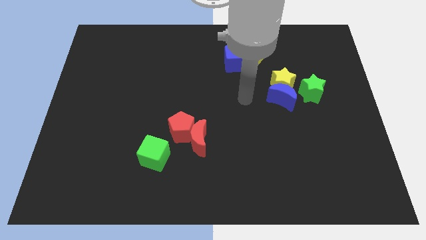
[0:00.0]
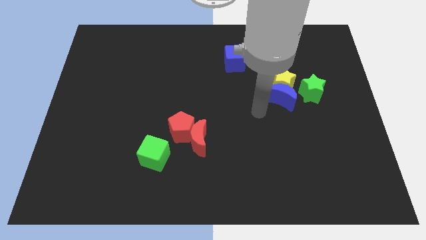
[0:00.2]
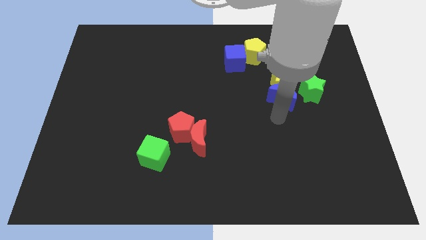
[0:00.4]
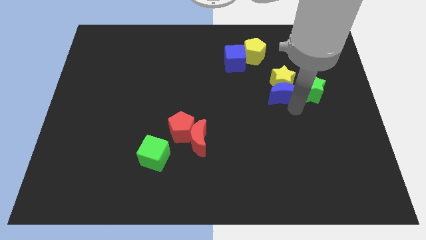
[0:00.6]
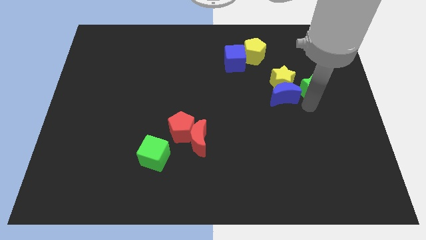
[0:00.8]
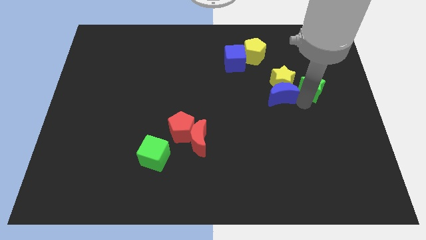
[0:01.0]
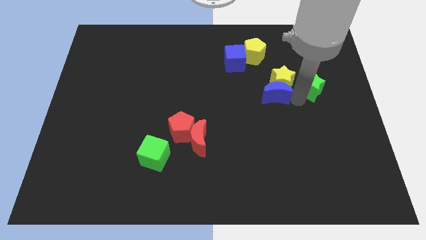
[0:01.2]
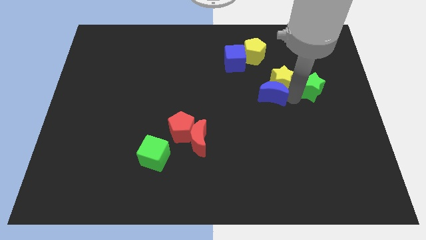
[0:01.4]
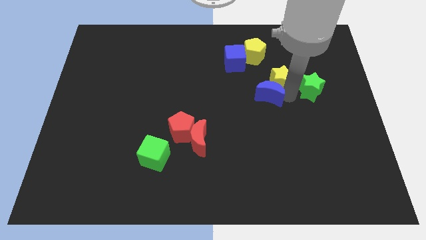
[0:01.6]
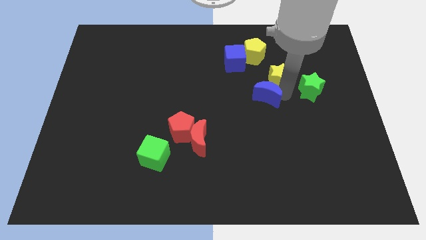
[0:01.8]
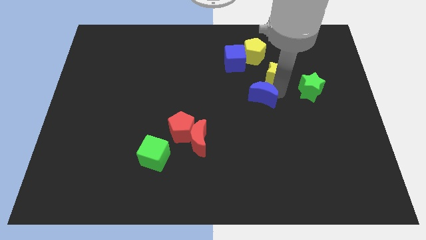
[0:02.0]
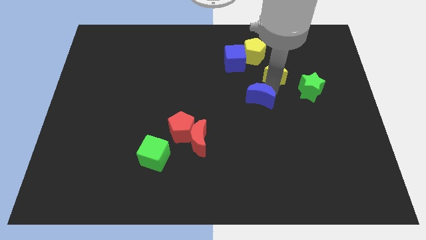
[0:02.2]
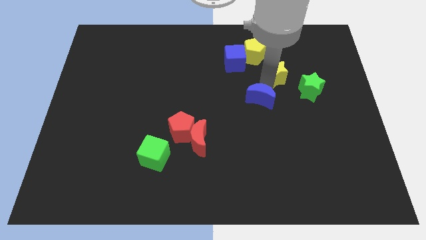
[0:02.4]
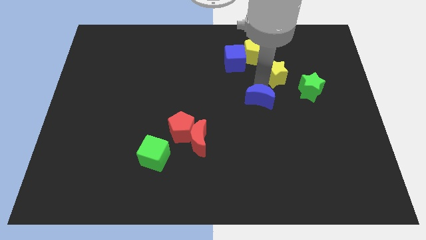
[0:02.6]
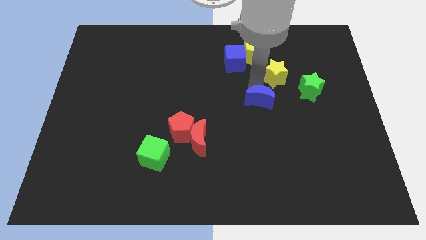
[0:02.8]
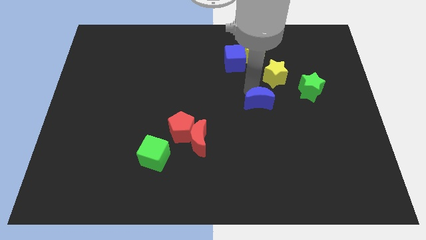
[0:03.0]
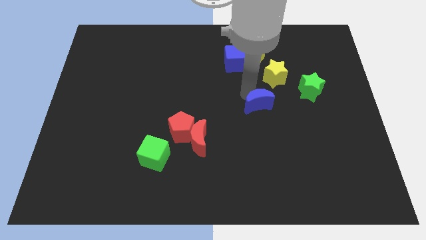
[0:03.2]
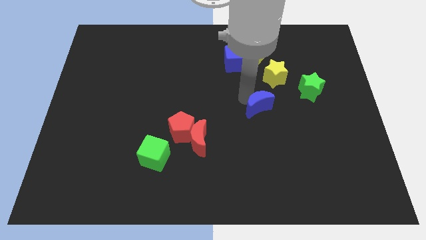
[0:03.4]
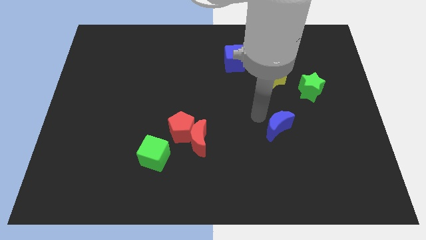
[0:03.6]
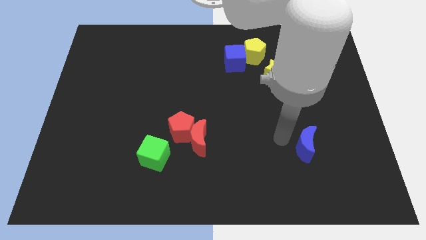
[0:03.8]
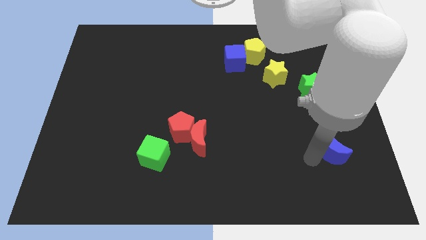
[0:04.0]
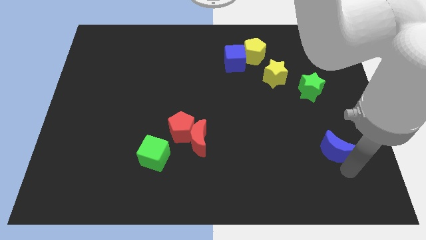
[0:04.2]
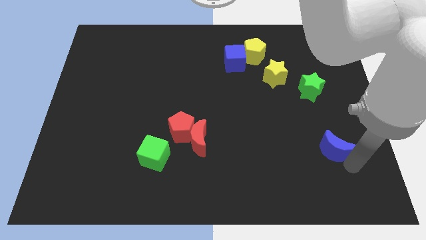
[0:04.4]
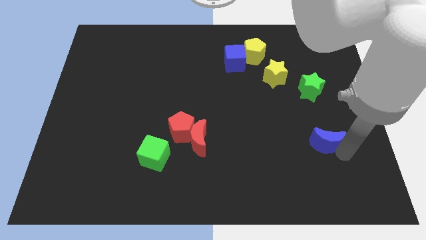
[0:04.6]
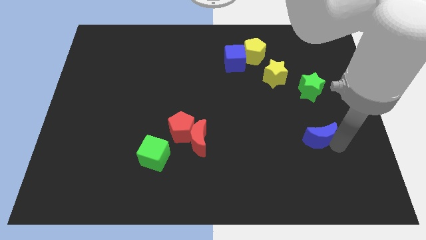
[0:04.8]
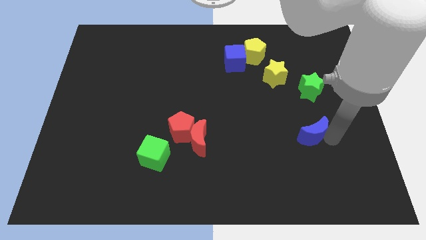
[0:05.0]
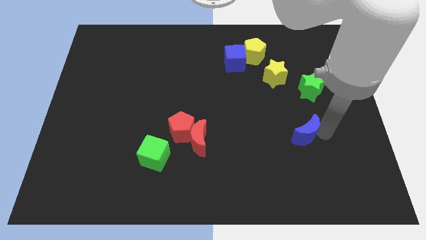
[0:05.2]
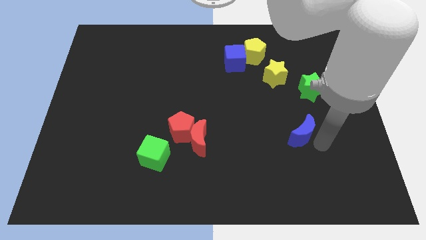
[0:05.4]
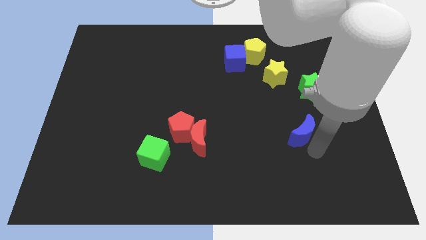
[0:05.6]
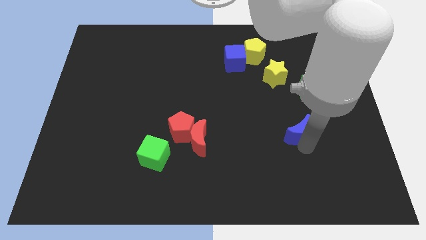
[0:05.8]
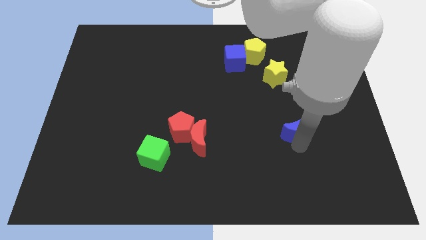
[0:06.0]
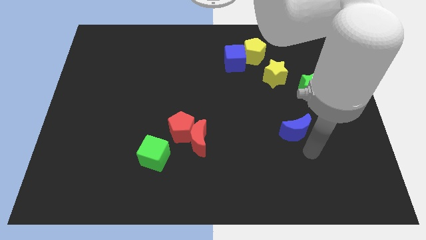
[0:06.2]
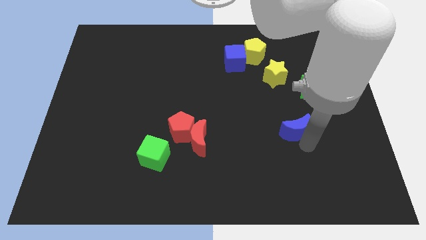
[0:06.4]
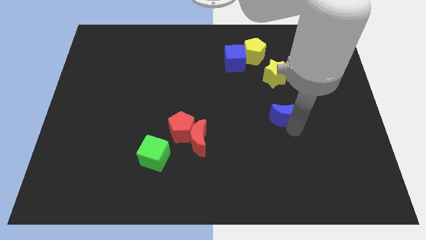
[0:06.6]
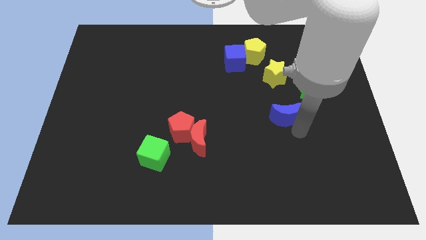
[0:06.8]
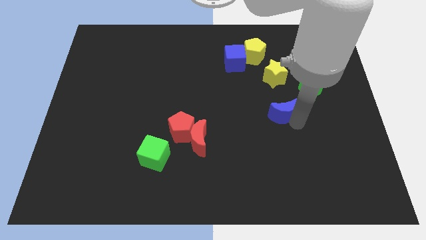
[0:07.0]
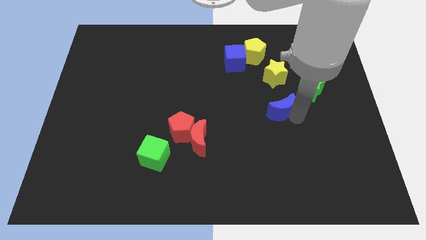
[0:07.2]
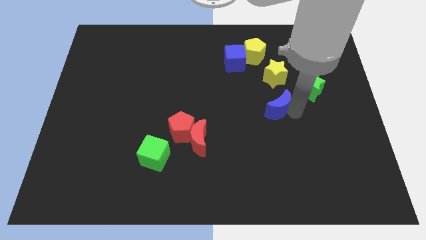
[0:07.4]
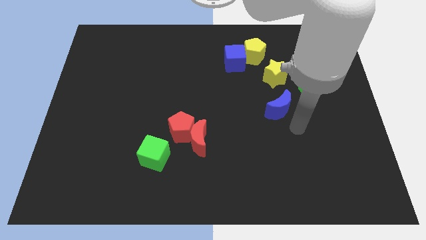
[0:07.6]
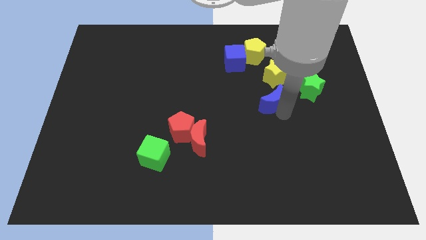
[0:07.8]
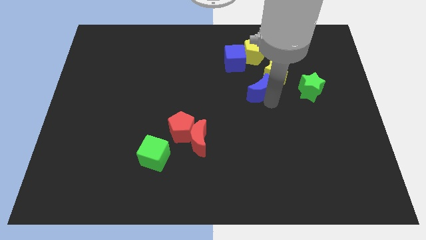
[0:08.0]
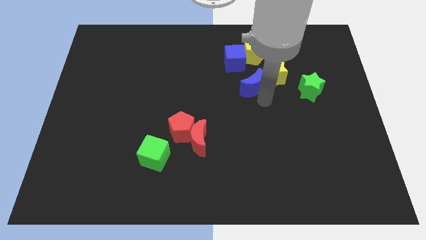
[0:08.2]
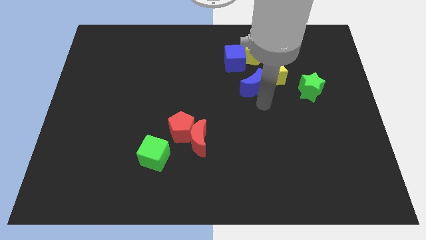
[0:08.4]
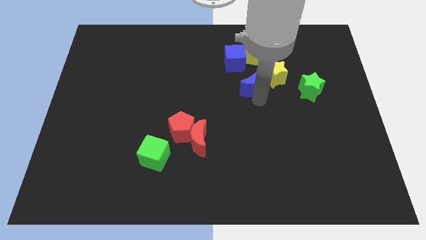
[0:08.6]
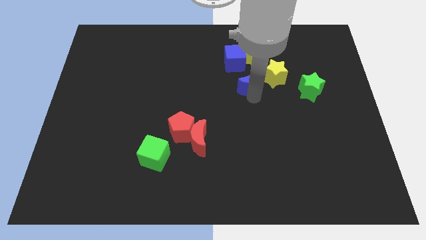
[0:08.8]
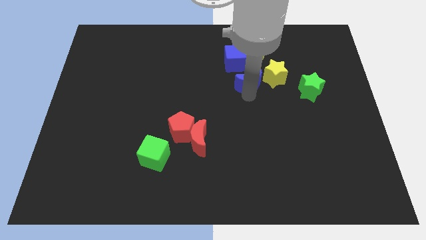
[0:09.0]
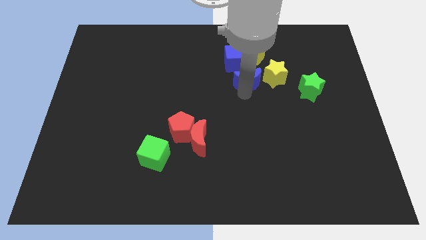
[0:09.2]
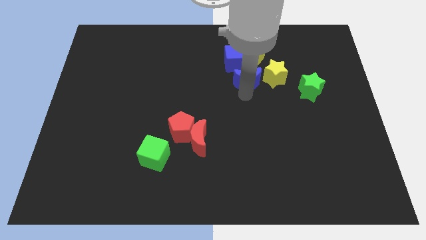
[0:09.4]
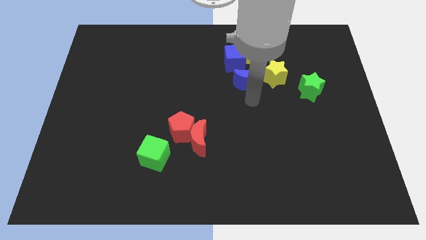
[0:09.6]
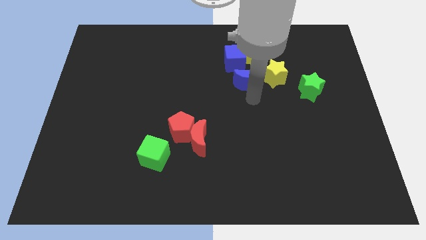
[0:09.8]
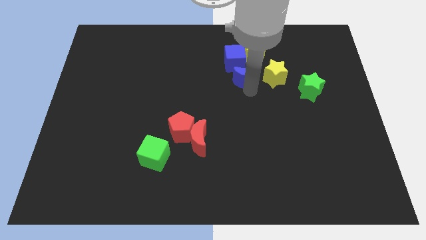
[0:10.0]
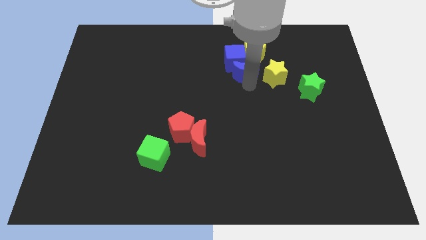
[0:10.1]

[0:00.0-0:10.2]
slide the blue moon close to the blue cube

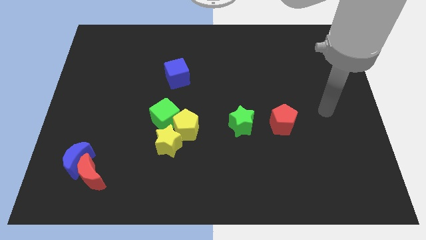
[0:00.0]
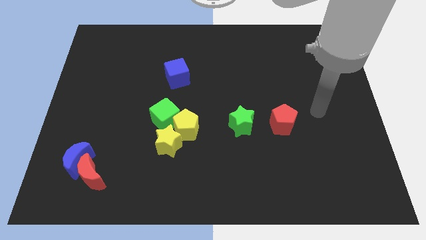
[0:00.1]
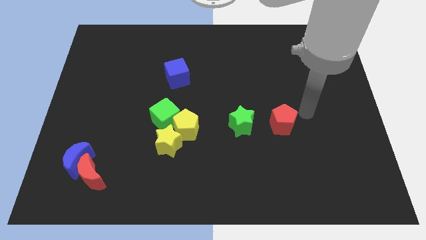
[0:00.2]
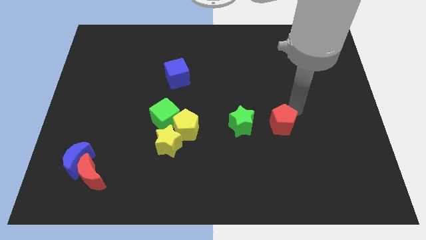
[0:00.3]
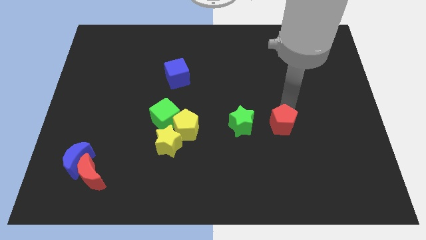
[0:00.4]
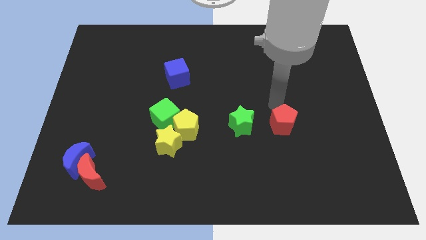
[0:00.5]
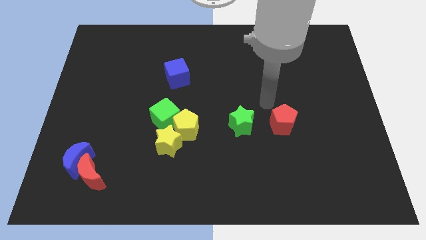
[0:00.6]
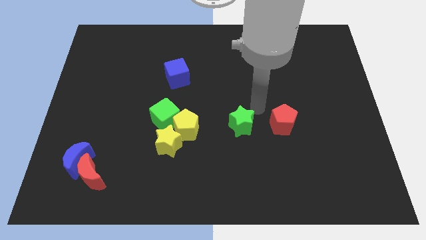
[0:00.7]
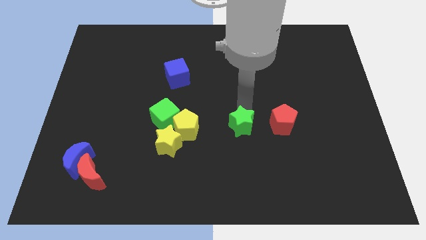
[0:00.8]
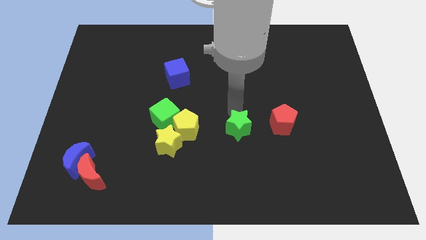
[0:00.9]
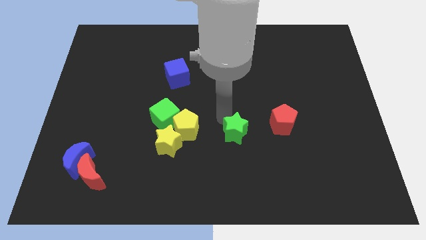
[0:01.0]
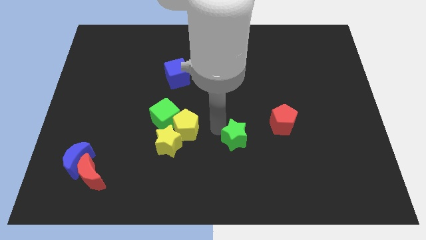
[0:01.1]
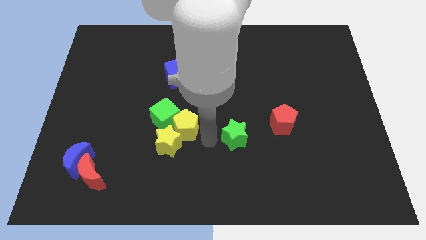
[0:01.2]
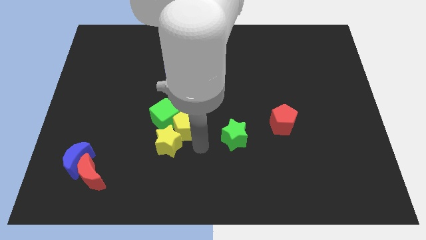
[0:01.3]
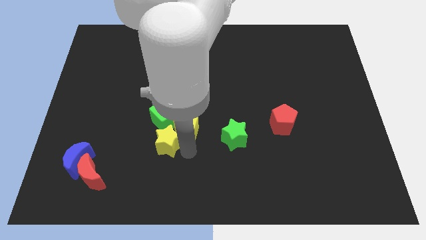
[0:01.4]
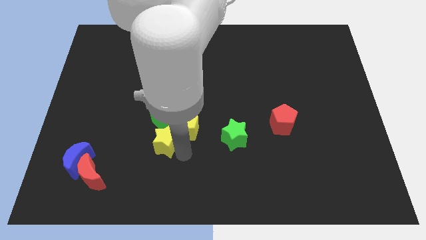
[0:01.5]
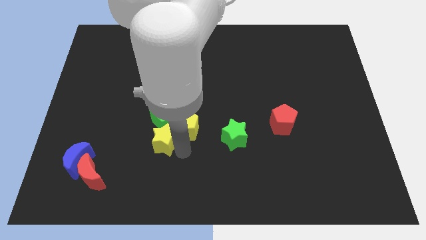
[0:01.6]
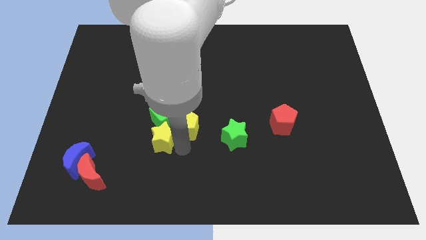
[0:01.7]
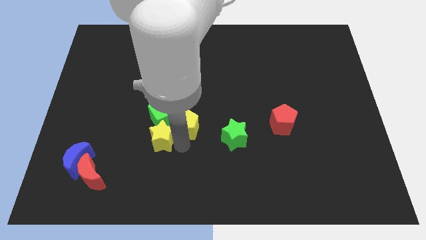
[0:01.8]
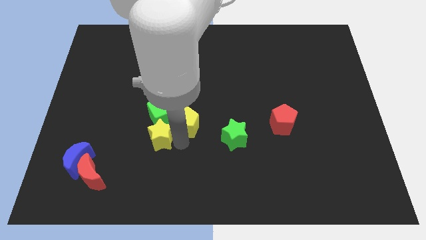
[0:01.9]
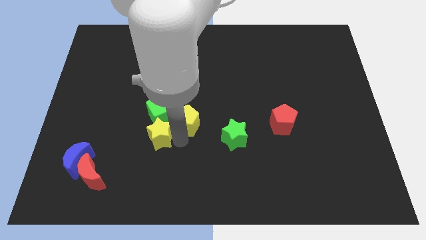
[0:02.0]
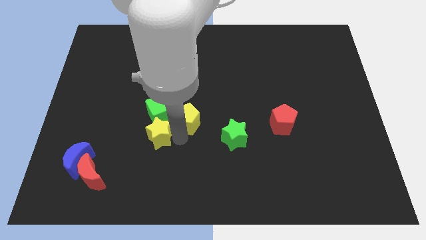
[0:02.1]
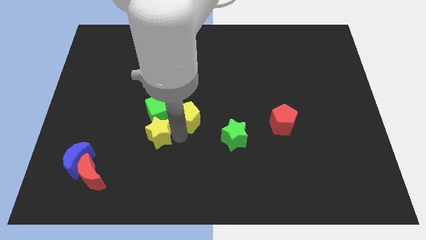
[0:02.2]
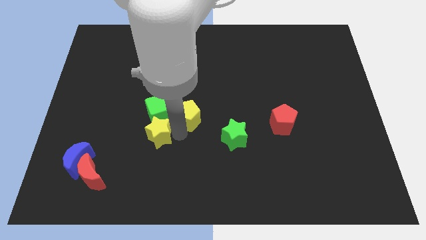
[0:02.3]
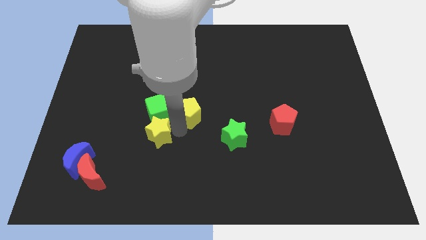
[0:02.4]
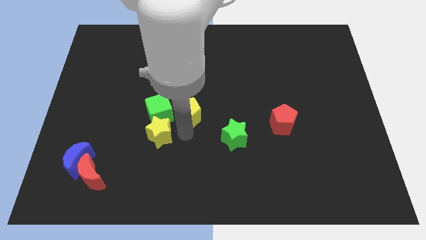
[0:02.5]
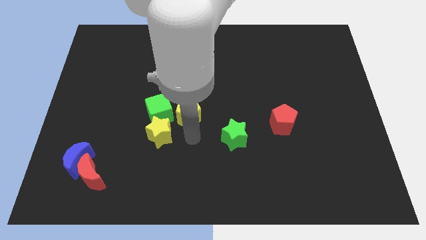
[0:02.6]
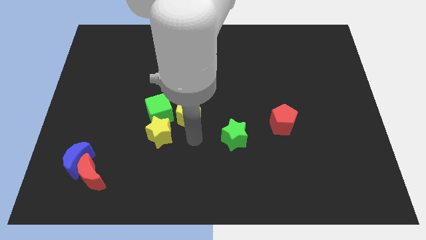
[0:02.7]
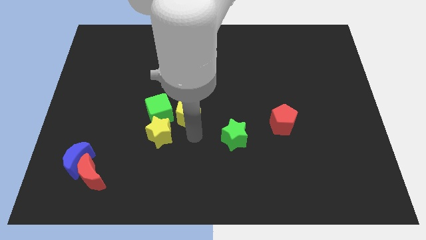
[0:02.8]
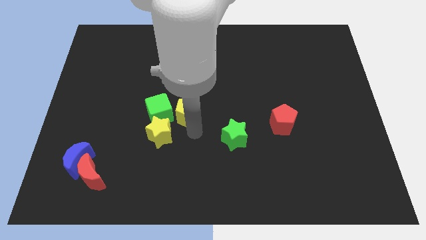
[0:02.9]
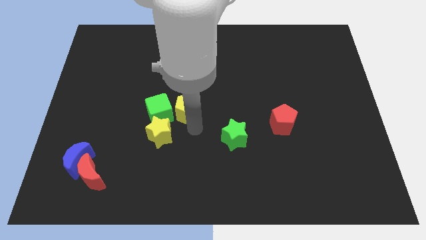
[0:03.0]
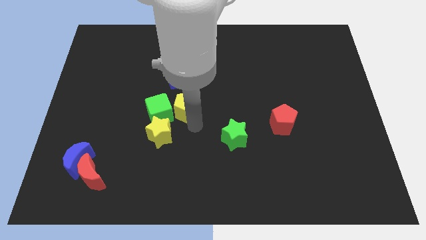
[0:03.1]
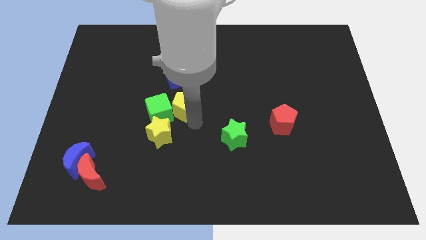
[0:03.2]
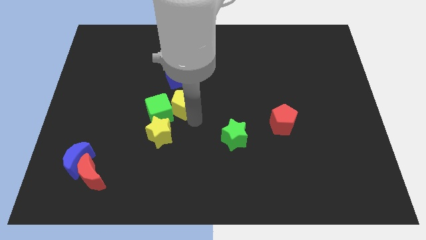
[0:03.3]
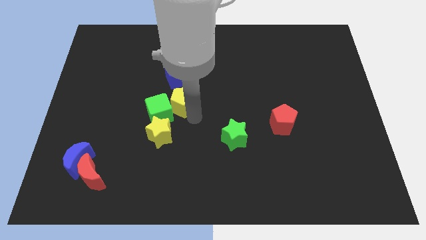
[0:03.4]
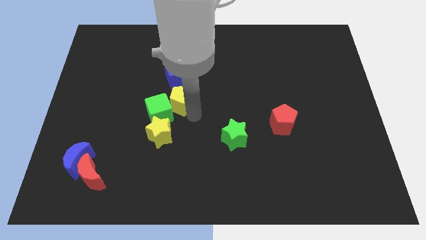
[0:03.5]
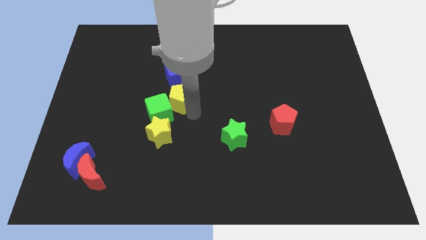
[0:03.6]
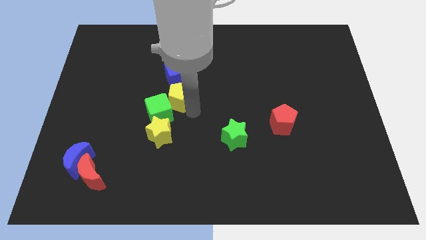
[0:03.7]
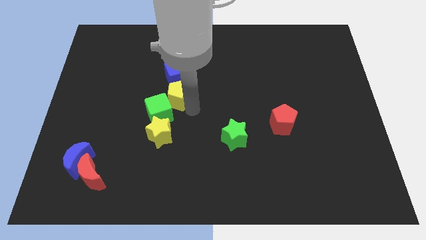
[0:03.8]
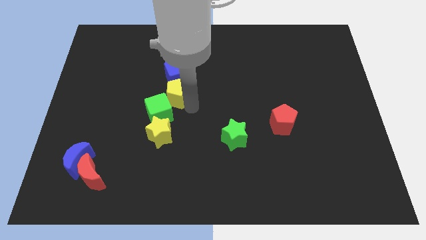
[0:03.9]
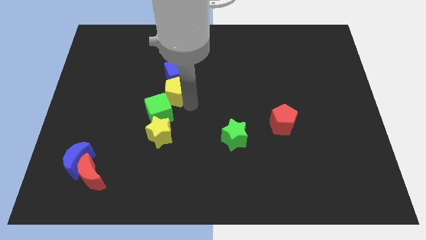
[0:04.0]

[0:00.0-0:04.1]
push the yellow pentagon to the blue cube
